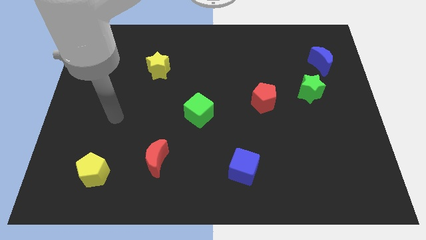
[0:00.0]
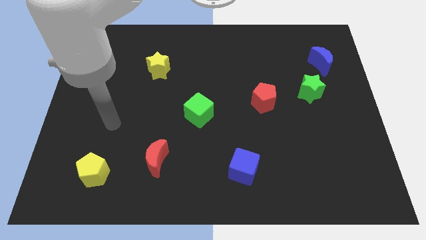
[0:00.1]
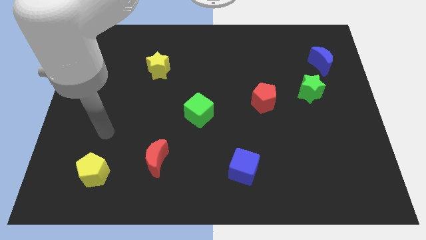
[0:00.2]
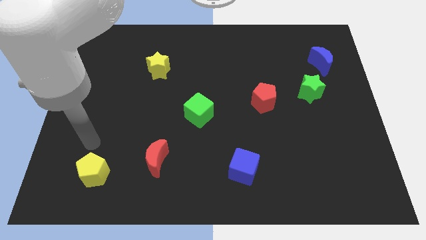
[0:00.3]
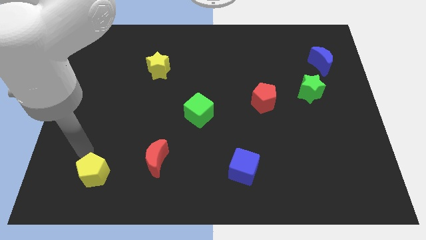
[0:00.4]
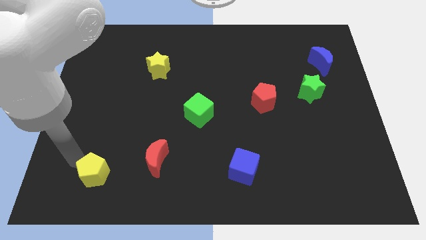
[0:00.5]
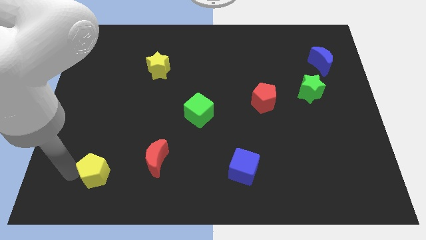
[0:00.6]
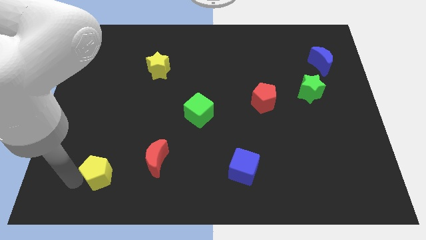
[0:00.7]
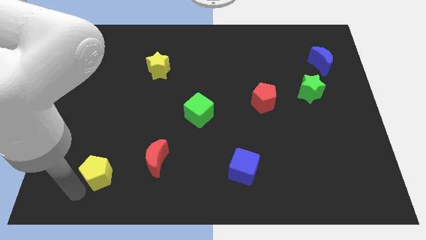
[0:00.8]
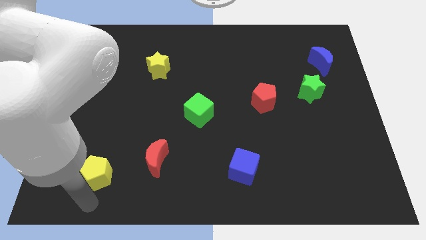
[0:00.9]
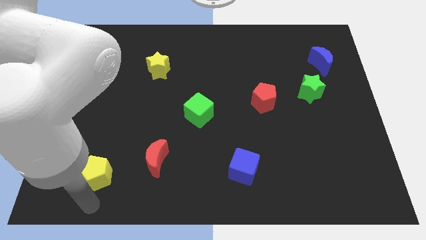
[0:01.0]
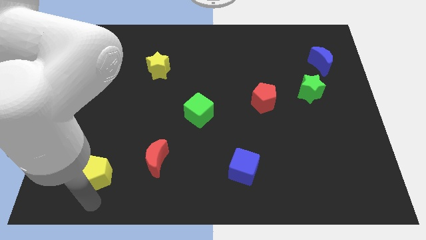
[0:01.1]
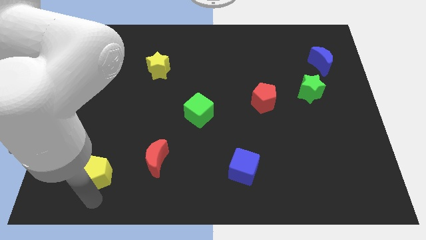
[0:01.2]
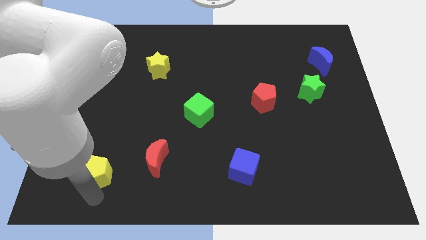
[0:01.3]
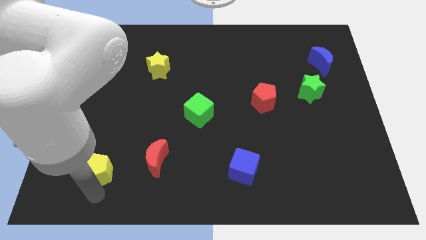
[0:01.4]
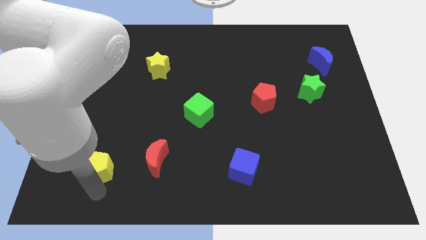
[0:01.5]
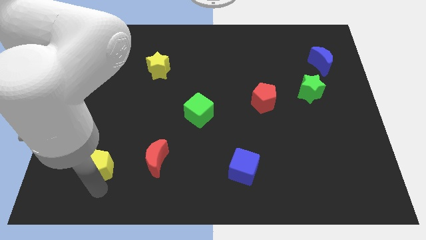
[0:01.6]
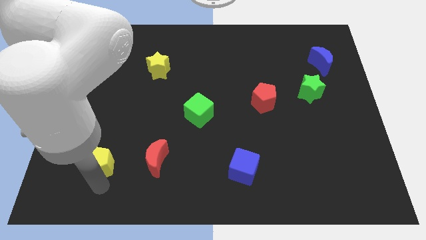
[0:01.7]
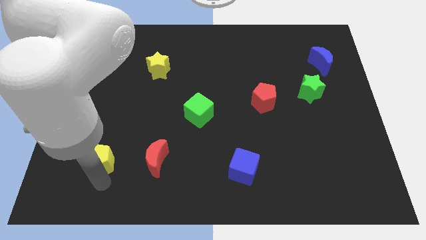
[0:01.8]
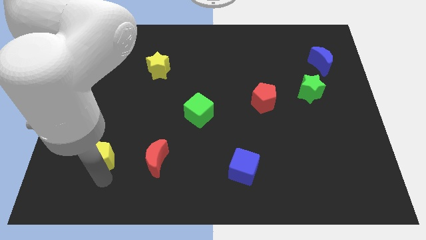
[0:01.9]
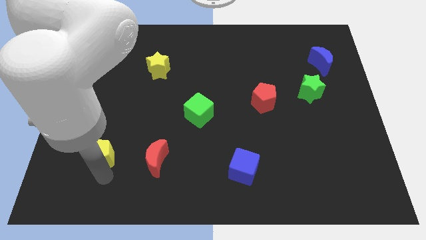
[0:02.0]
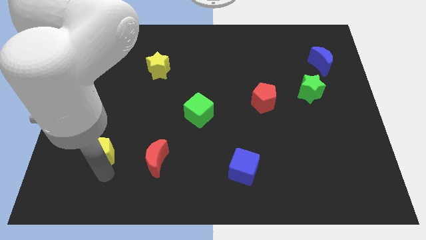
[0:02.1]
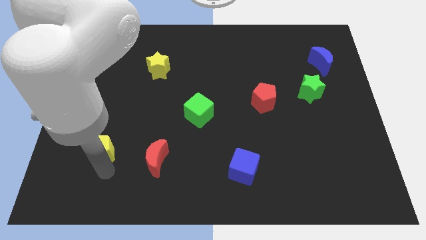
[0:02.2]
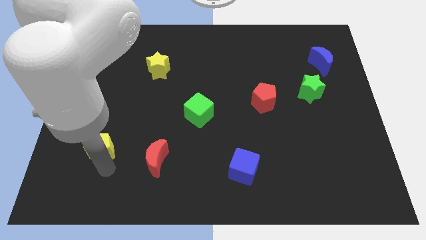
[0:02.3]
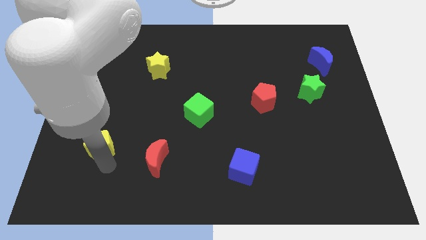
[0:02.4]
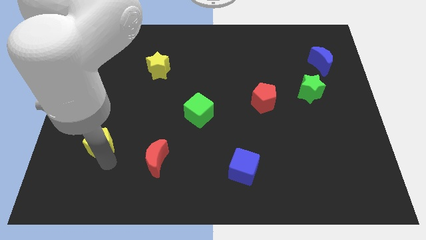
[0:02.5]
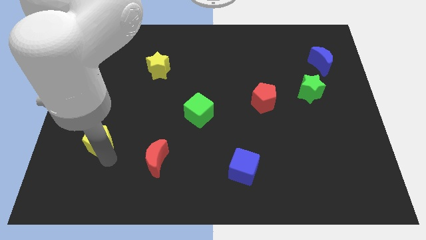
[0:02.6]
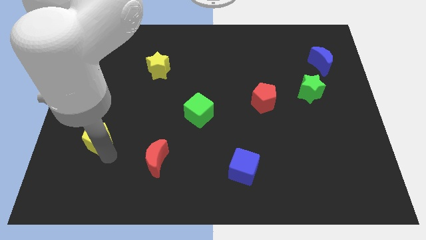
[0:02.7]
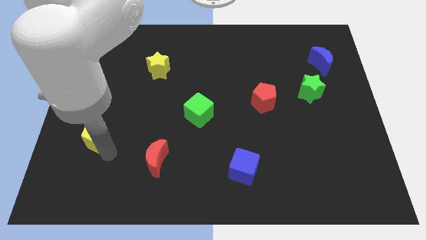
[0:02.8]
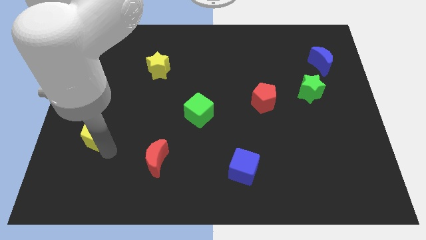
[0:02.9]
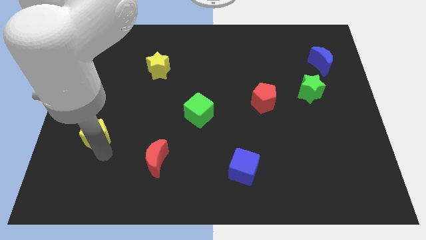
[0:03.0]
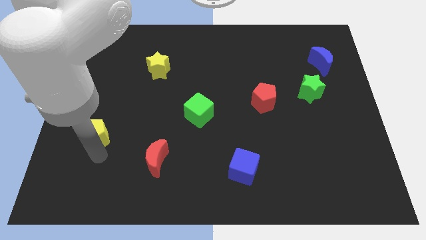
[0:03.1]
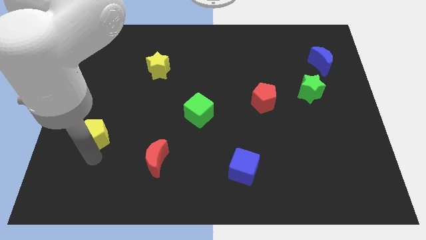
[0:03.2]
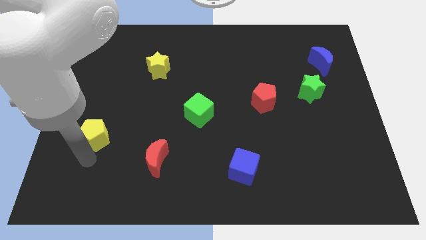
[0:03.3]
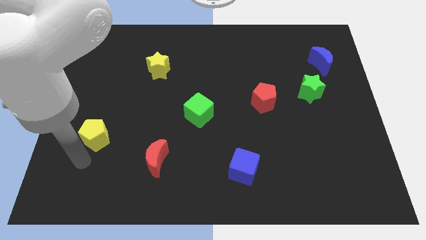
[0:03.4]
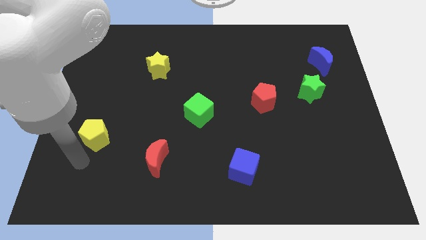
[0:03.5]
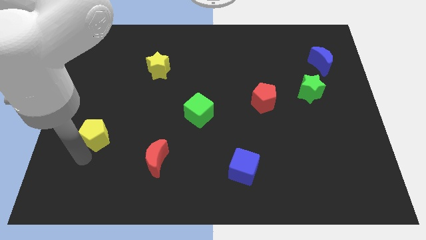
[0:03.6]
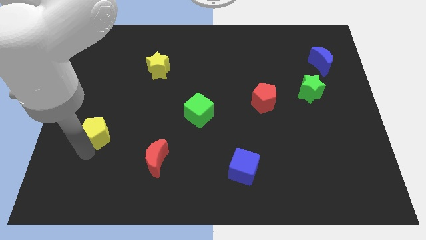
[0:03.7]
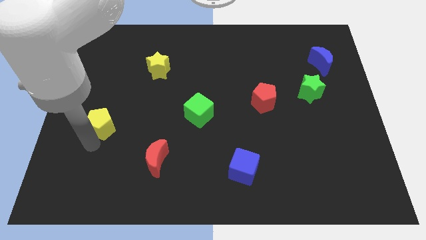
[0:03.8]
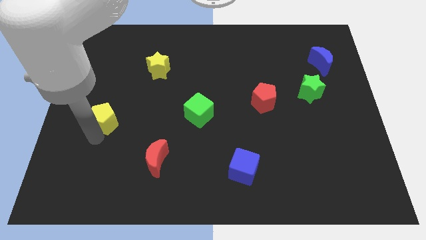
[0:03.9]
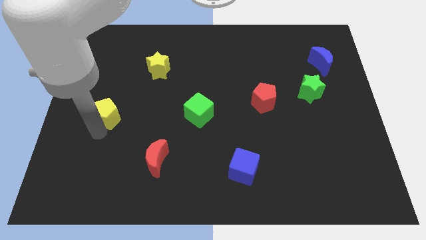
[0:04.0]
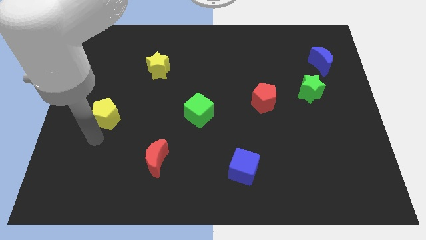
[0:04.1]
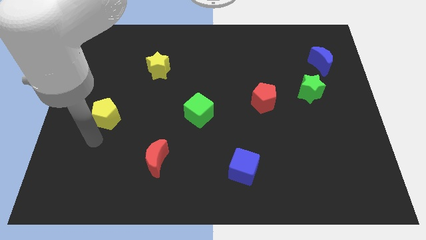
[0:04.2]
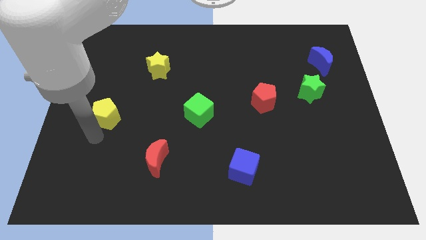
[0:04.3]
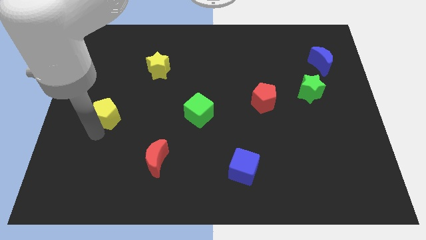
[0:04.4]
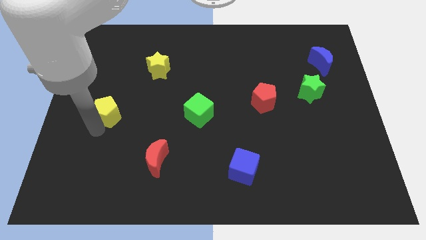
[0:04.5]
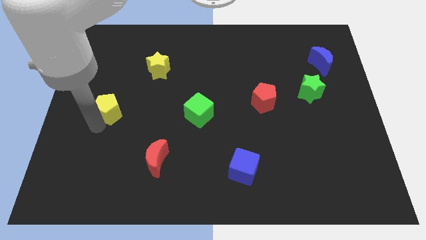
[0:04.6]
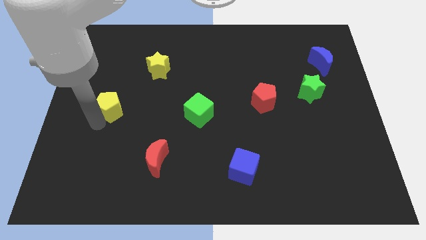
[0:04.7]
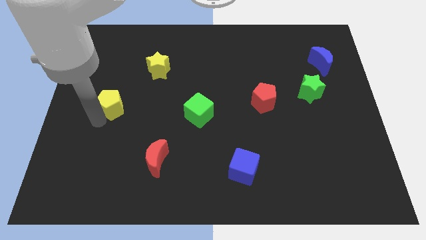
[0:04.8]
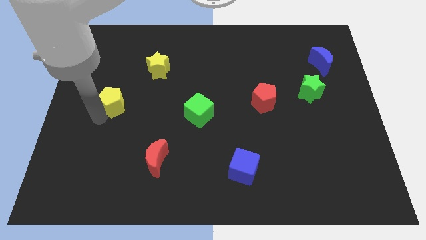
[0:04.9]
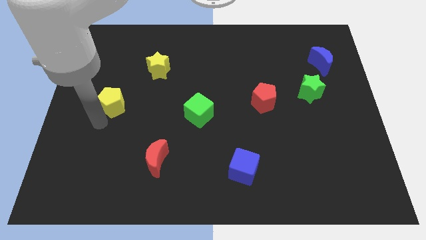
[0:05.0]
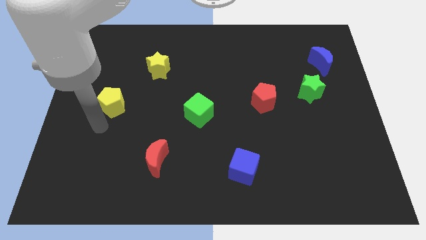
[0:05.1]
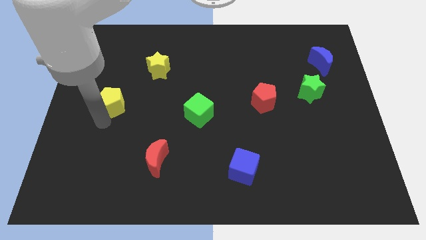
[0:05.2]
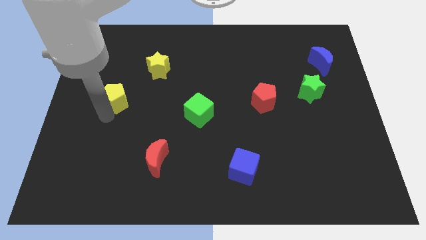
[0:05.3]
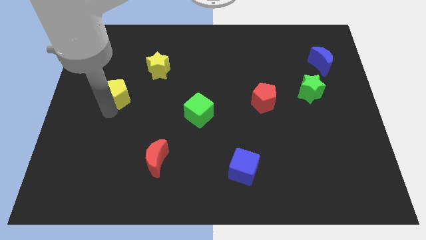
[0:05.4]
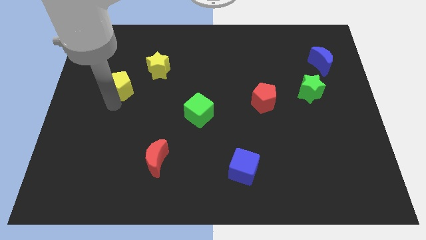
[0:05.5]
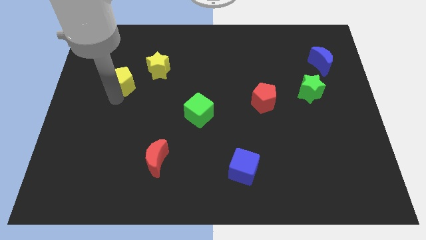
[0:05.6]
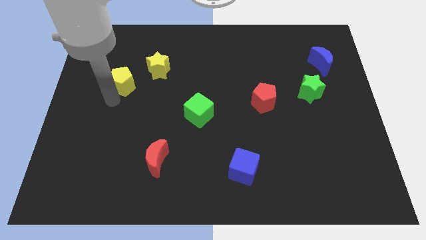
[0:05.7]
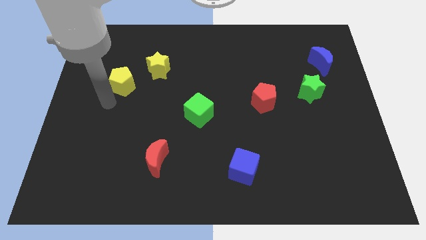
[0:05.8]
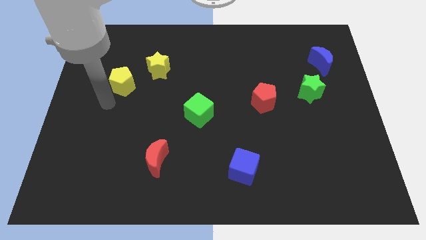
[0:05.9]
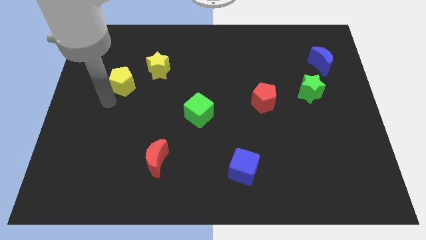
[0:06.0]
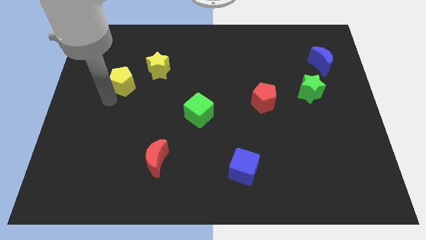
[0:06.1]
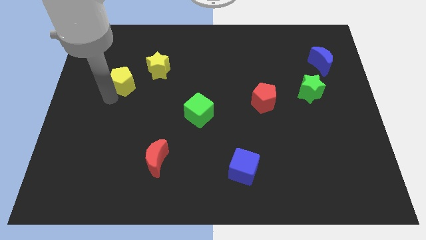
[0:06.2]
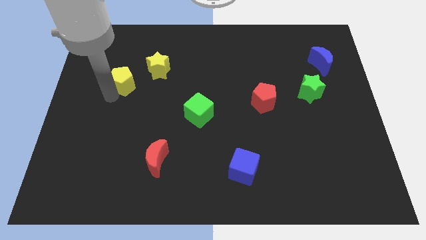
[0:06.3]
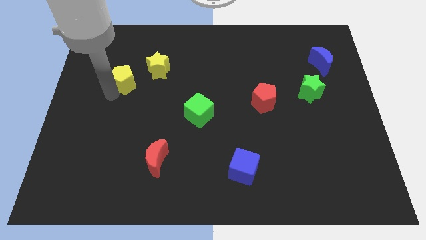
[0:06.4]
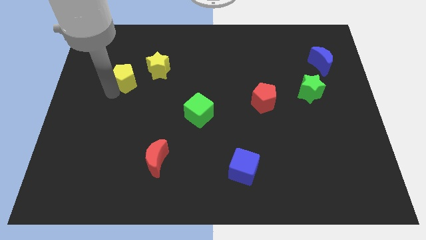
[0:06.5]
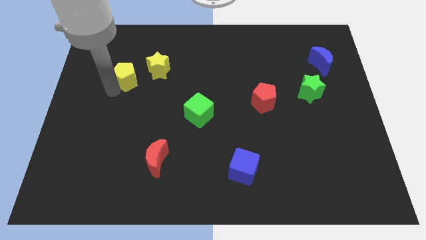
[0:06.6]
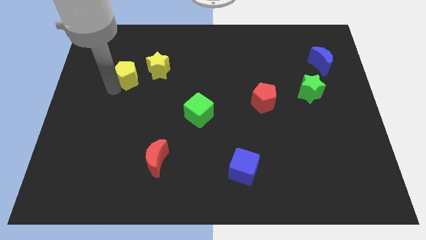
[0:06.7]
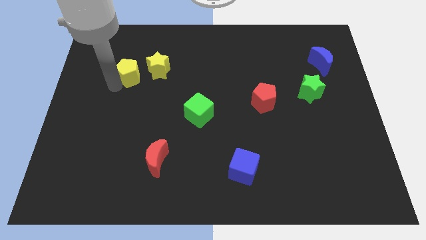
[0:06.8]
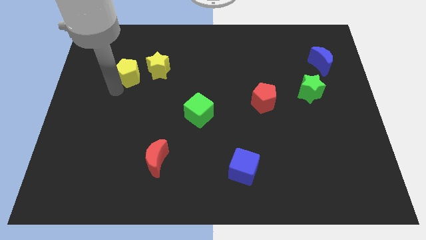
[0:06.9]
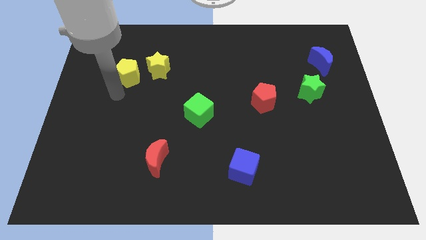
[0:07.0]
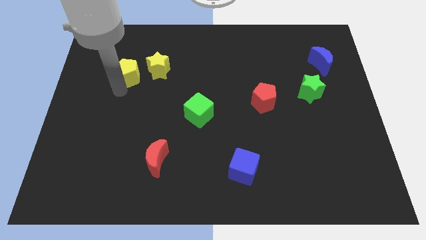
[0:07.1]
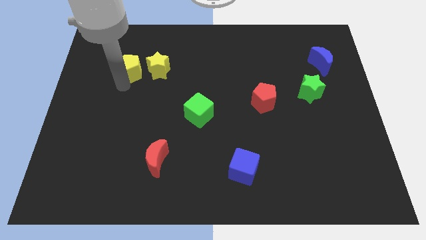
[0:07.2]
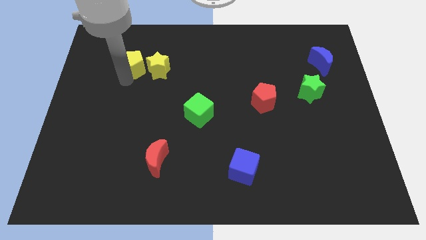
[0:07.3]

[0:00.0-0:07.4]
put the yellow pentagon to the top left side of the yellow star
